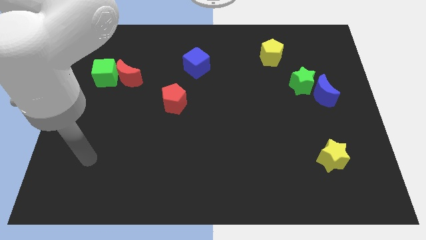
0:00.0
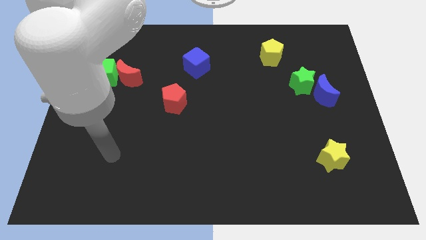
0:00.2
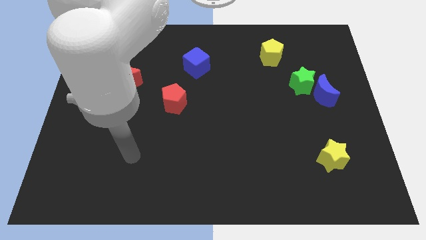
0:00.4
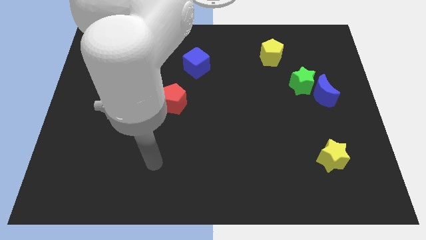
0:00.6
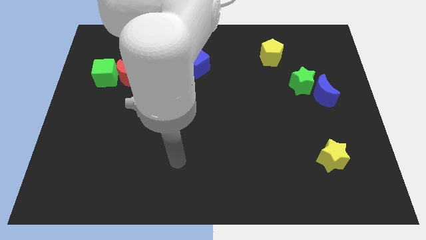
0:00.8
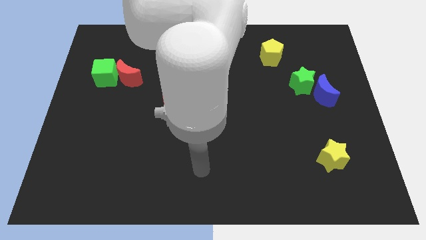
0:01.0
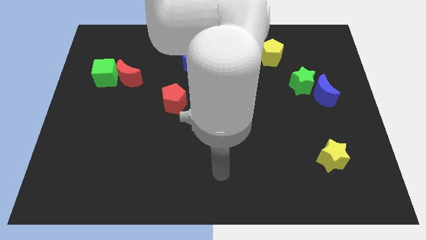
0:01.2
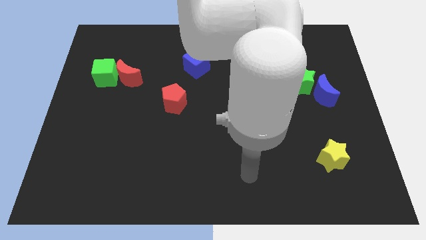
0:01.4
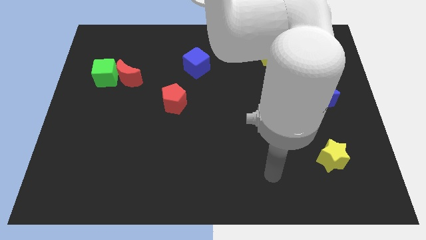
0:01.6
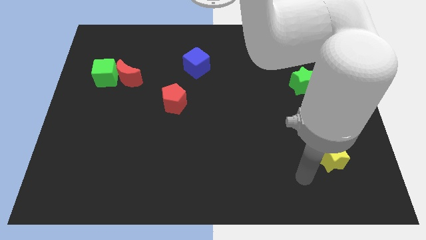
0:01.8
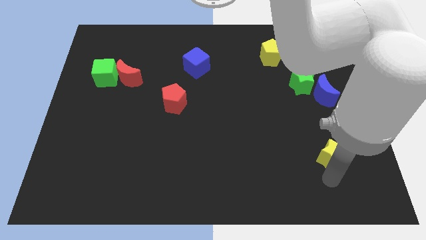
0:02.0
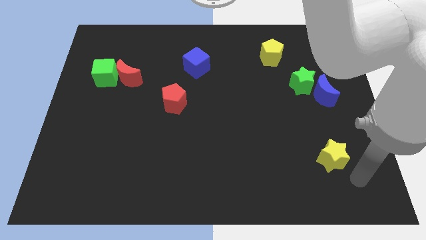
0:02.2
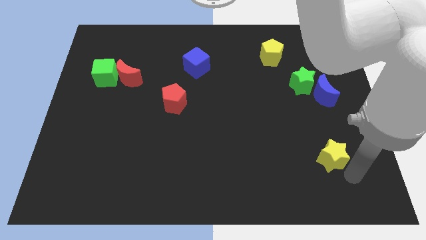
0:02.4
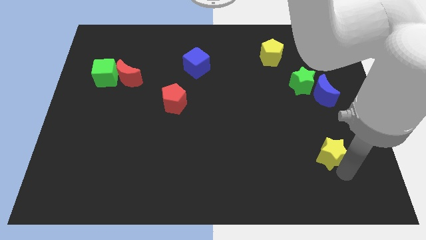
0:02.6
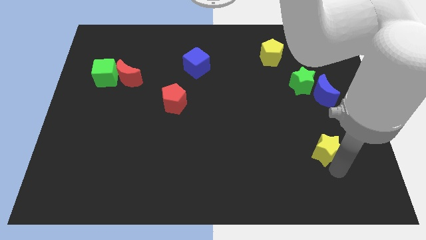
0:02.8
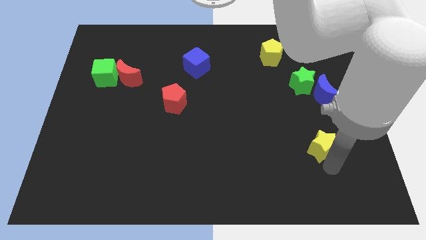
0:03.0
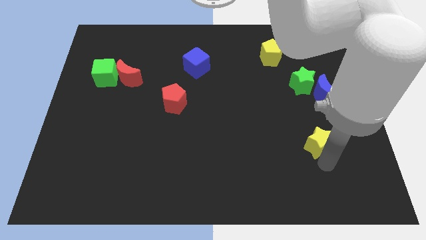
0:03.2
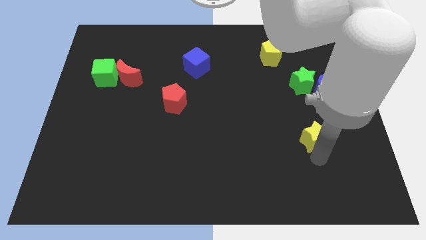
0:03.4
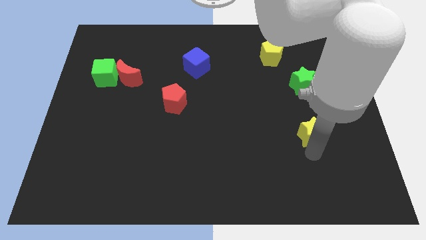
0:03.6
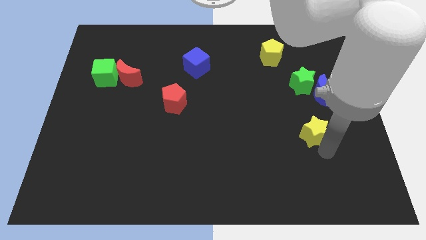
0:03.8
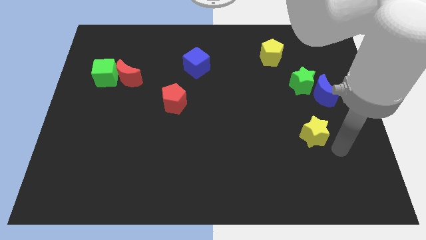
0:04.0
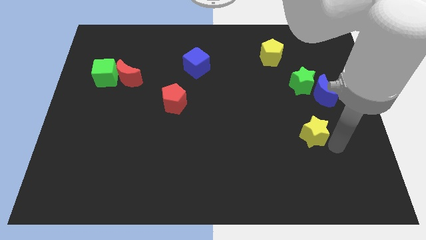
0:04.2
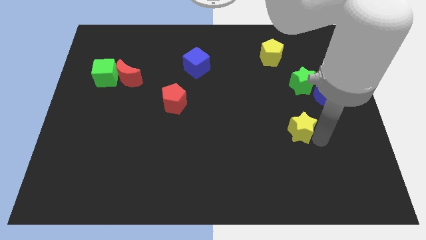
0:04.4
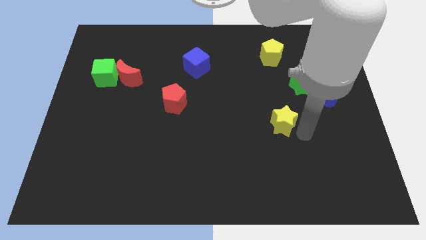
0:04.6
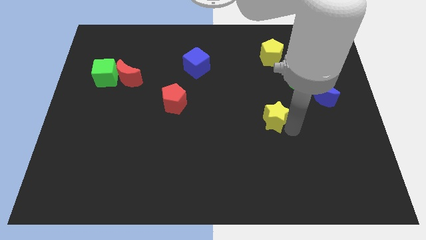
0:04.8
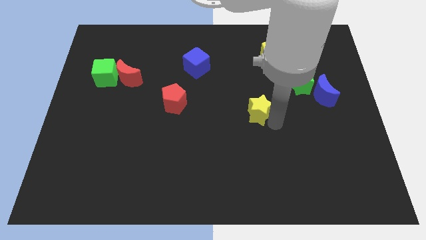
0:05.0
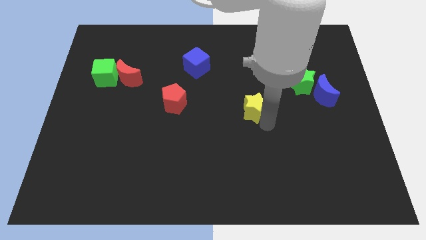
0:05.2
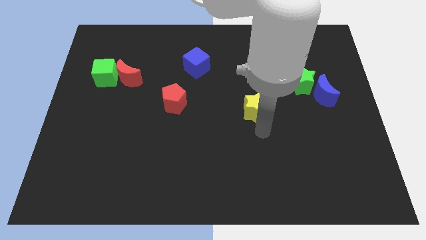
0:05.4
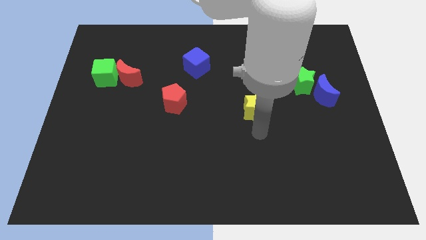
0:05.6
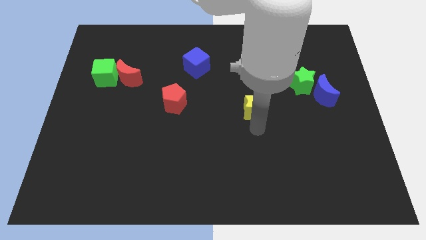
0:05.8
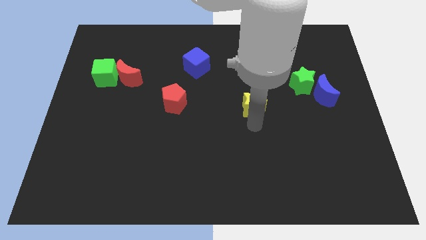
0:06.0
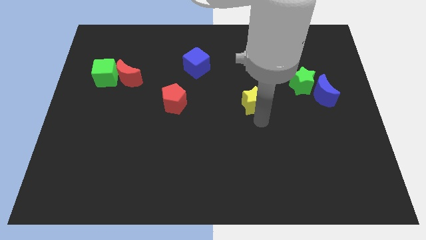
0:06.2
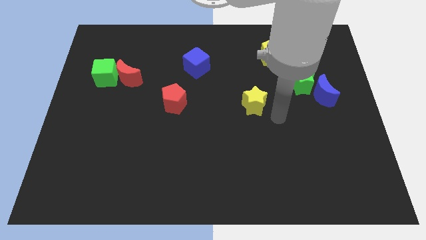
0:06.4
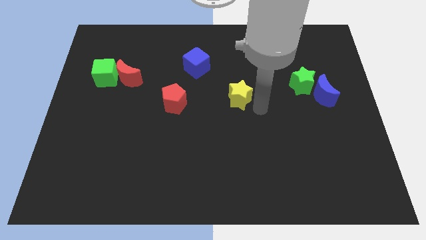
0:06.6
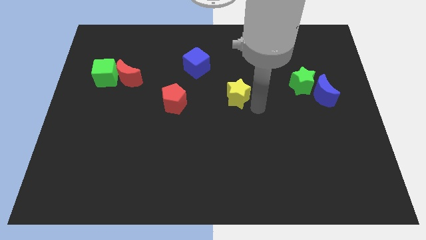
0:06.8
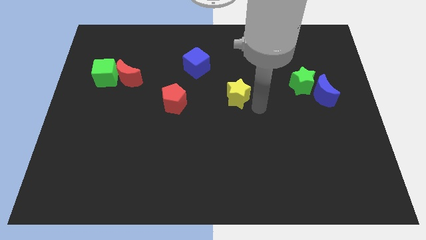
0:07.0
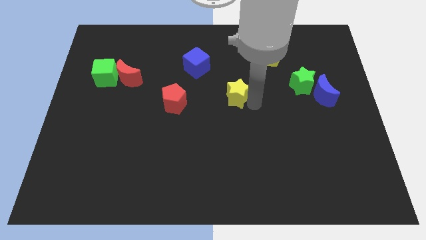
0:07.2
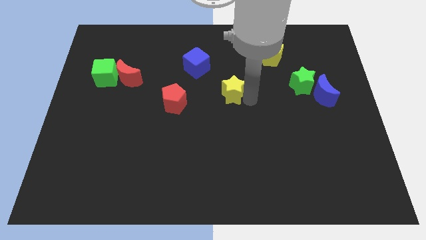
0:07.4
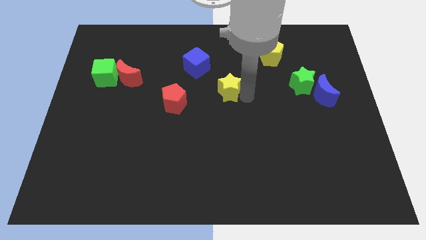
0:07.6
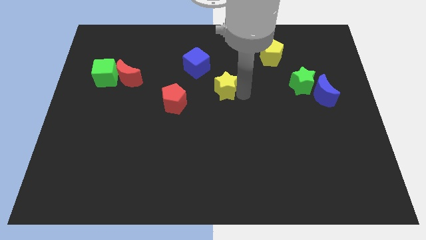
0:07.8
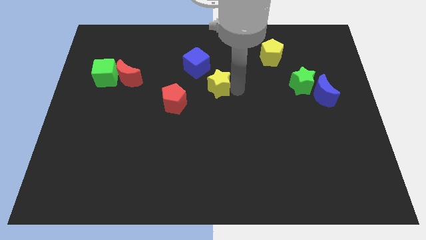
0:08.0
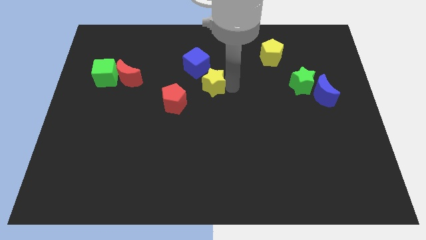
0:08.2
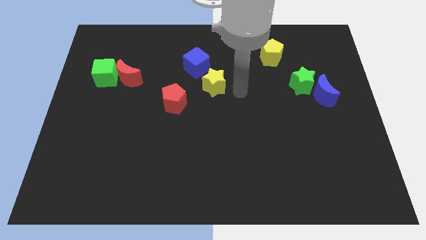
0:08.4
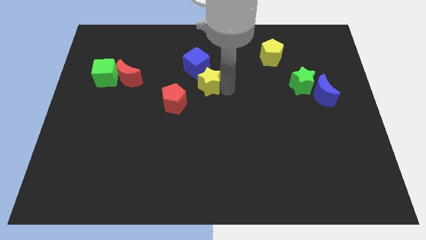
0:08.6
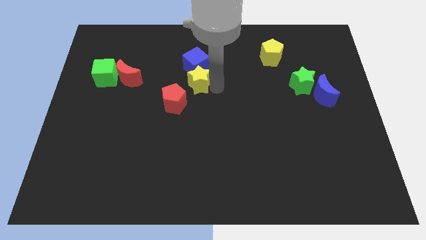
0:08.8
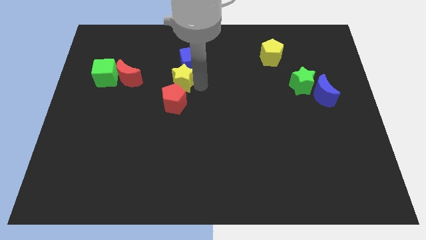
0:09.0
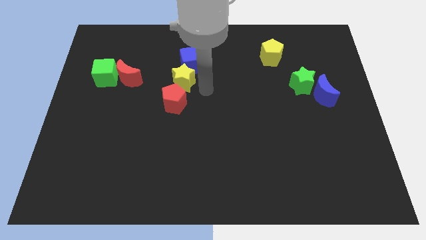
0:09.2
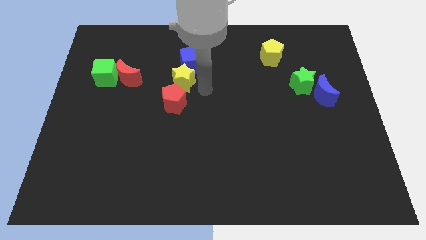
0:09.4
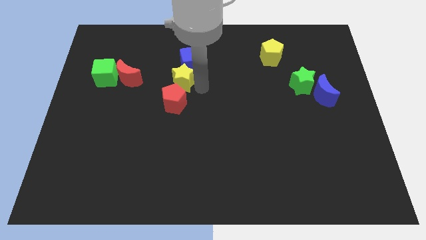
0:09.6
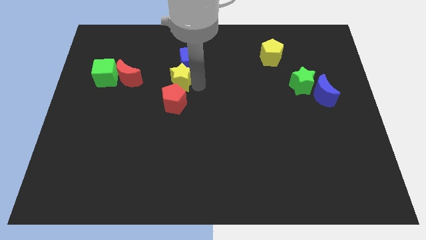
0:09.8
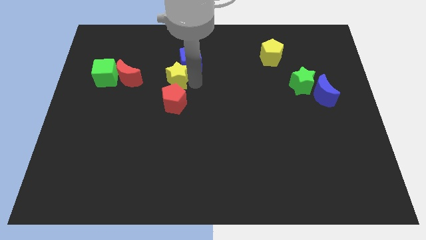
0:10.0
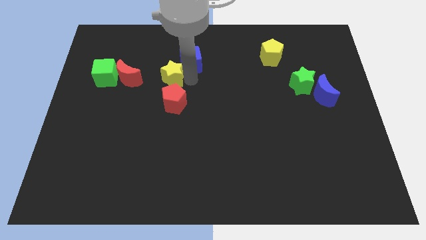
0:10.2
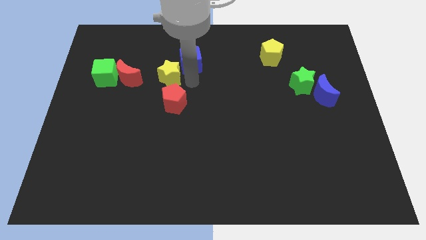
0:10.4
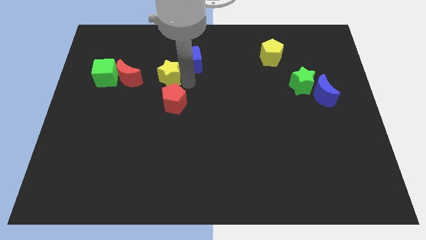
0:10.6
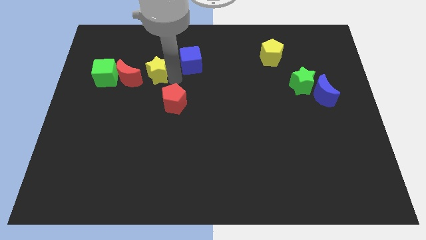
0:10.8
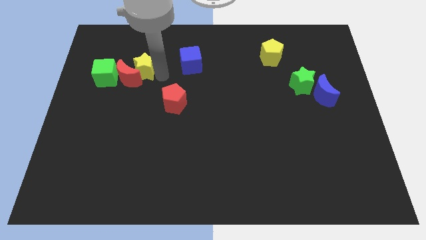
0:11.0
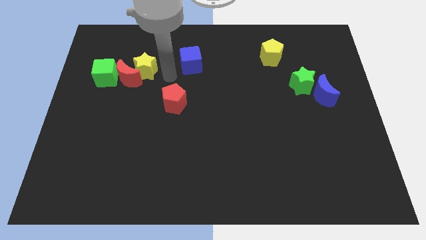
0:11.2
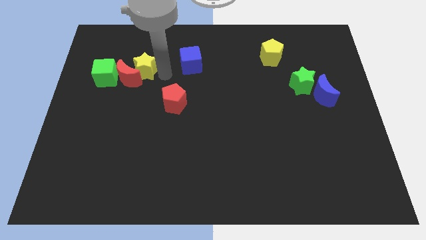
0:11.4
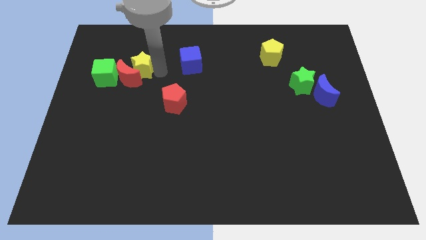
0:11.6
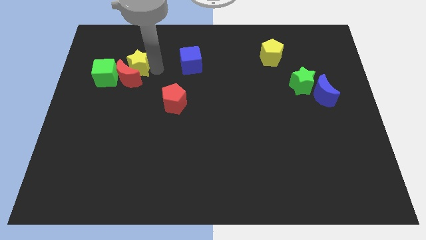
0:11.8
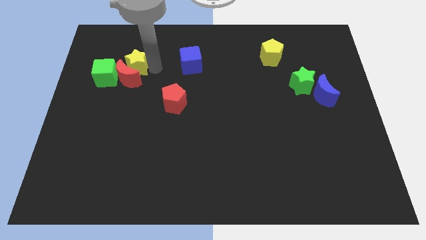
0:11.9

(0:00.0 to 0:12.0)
put the yellow star to the top left of the red moon

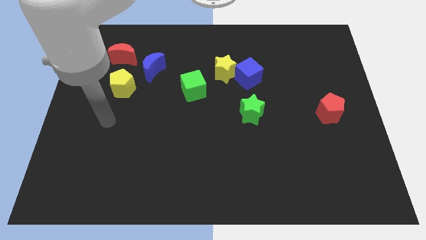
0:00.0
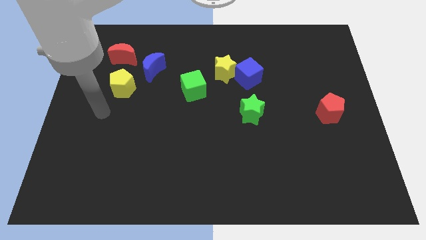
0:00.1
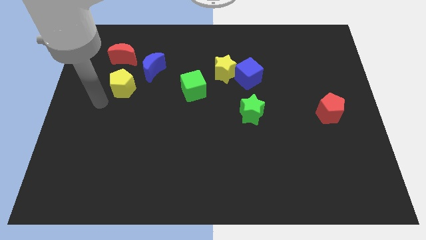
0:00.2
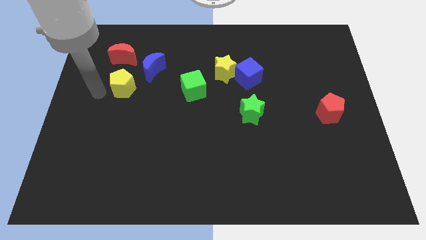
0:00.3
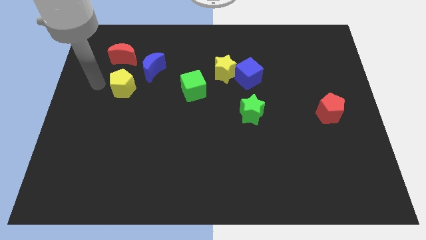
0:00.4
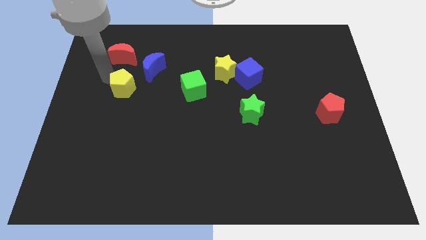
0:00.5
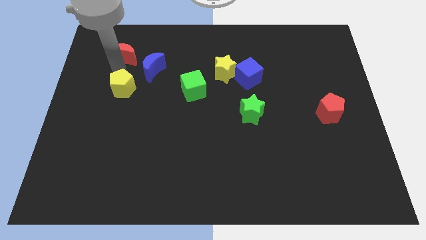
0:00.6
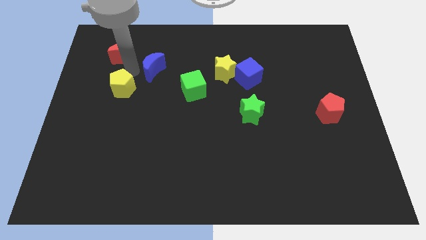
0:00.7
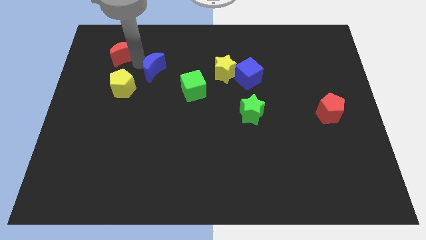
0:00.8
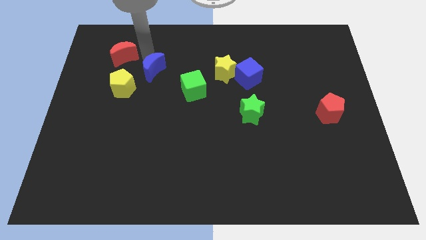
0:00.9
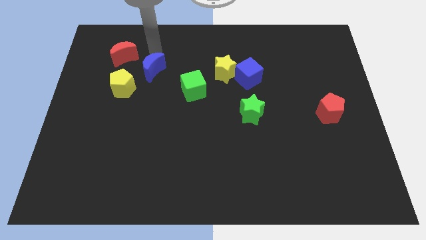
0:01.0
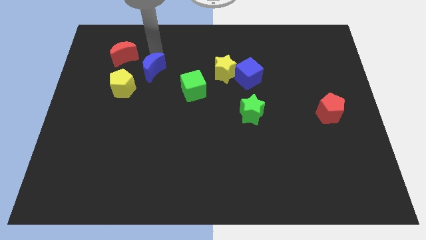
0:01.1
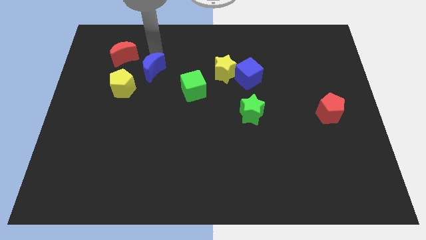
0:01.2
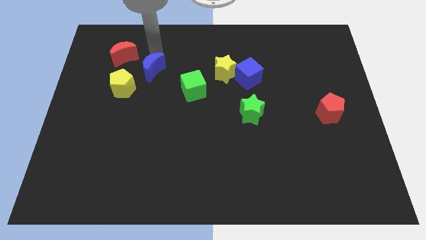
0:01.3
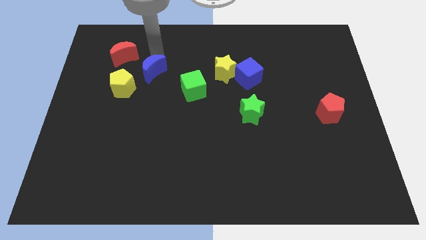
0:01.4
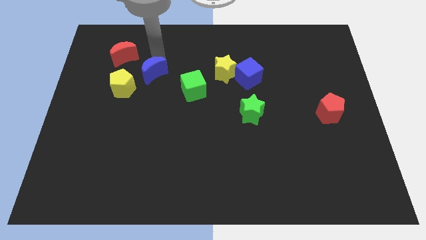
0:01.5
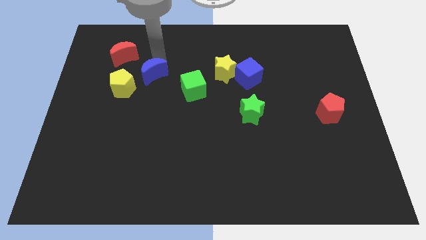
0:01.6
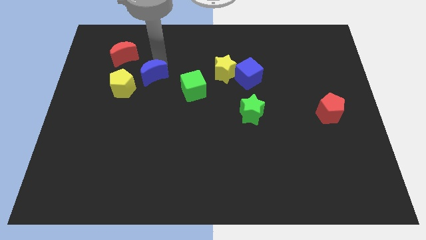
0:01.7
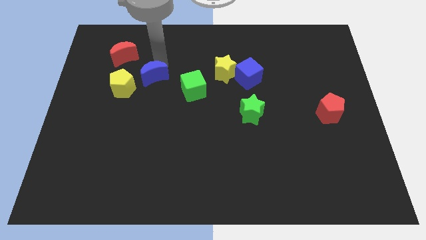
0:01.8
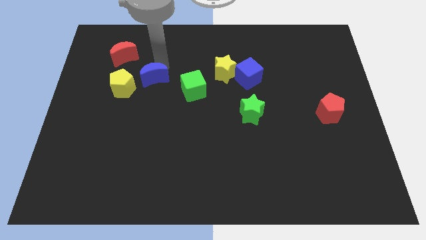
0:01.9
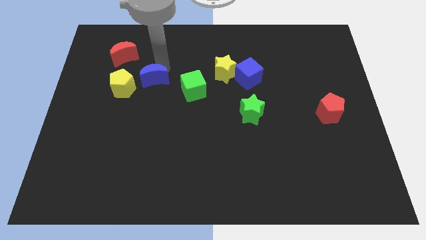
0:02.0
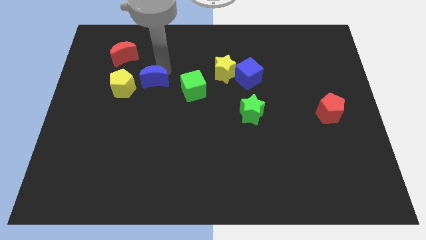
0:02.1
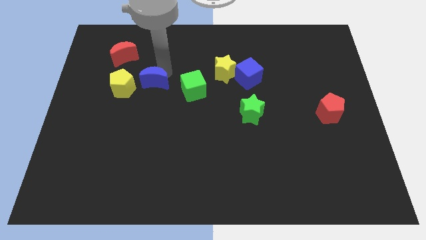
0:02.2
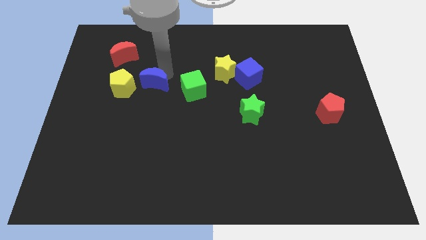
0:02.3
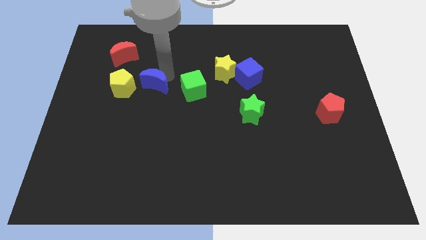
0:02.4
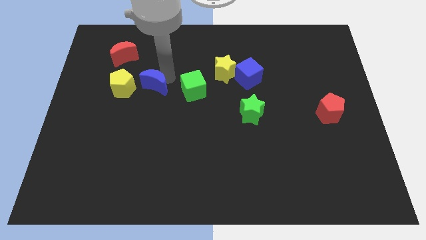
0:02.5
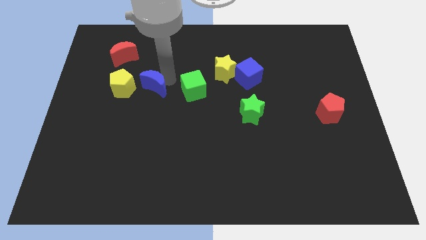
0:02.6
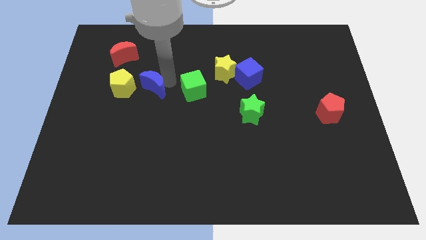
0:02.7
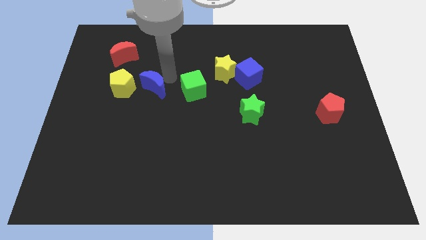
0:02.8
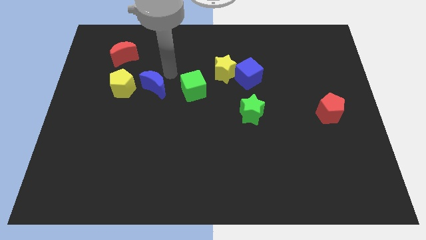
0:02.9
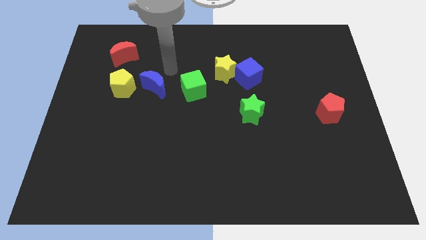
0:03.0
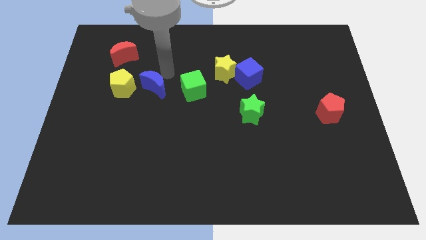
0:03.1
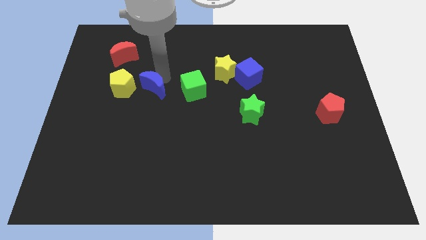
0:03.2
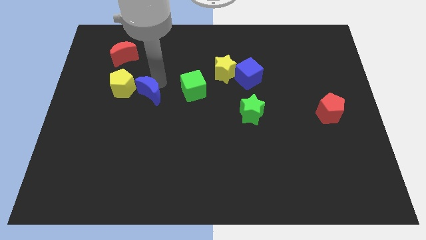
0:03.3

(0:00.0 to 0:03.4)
move the blue moon to the bottom right side of the yellow pentagon
